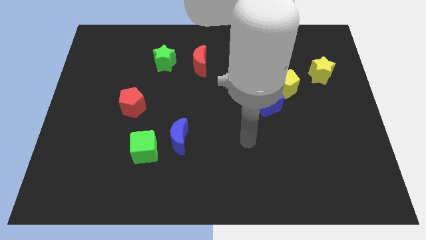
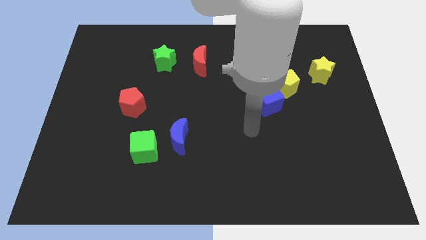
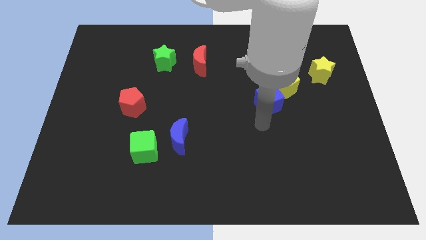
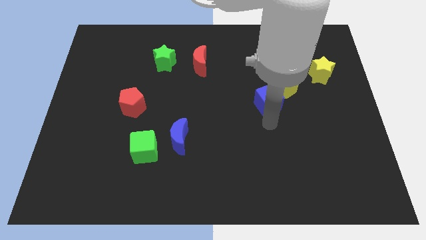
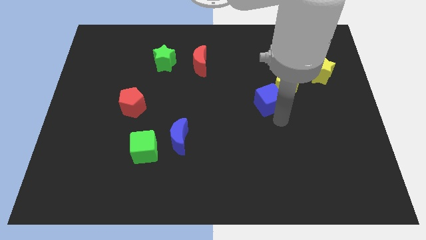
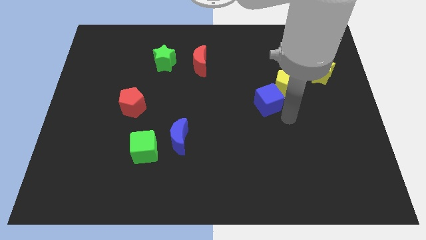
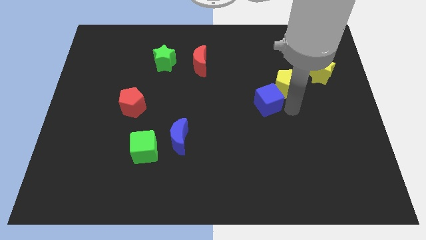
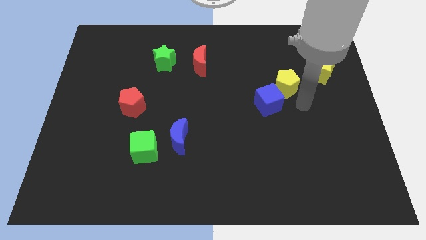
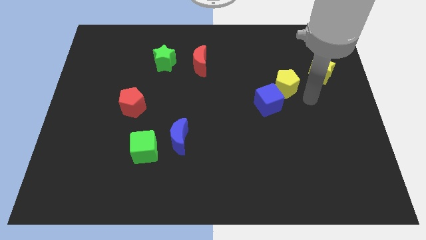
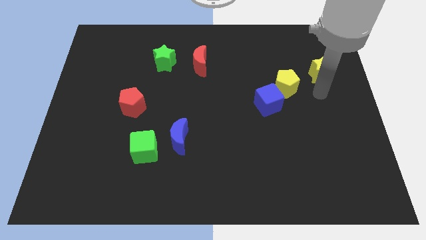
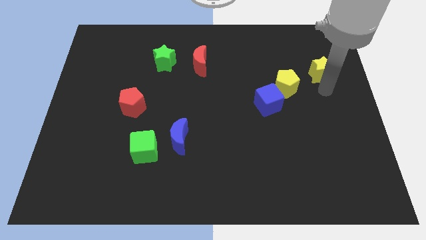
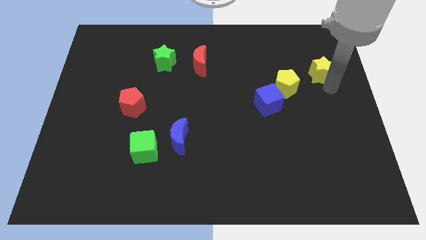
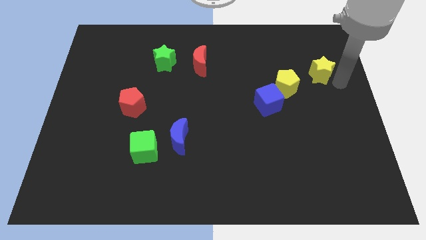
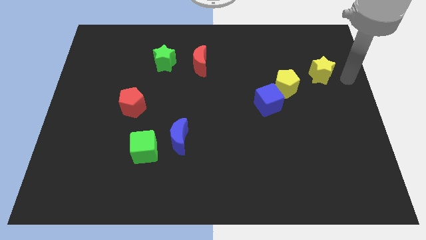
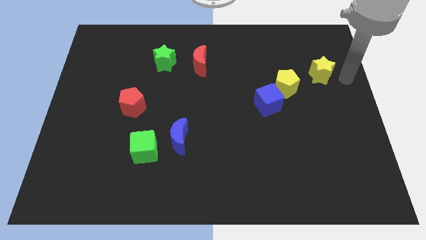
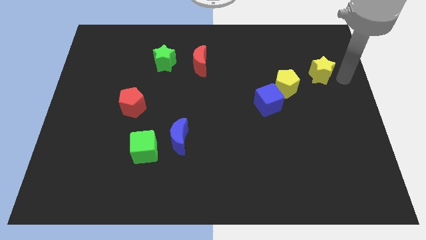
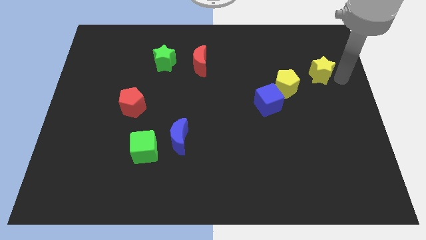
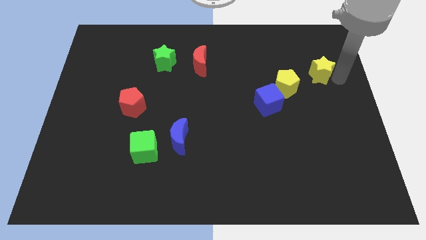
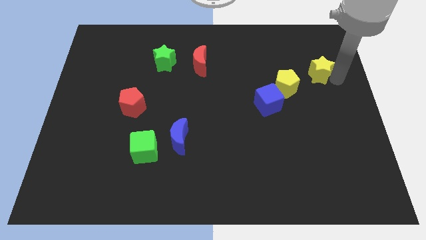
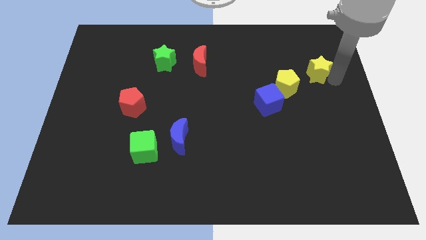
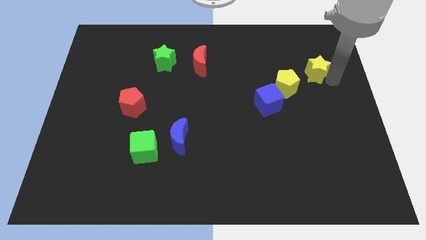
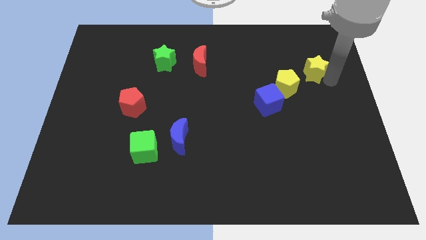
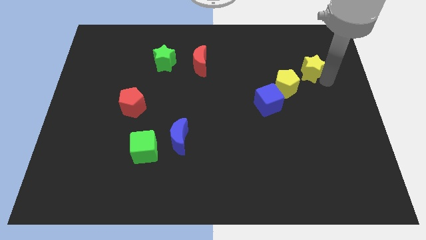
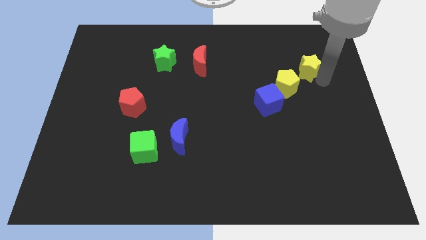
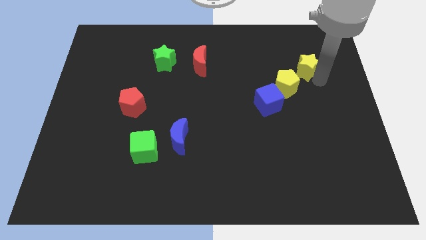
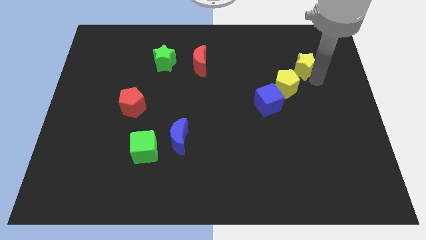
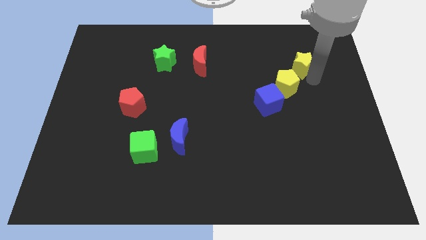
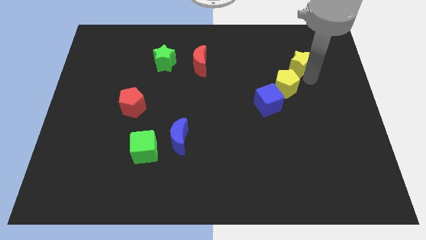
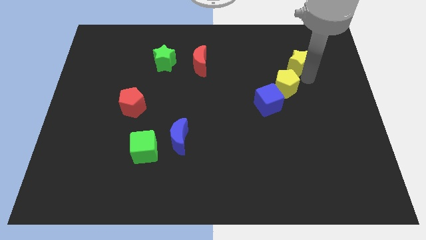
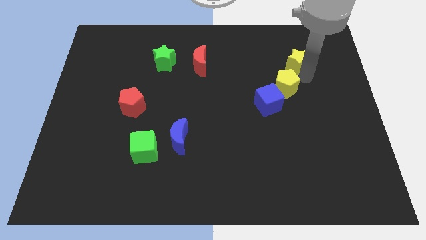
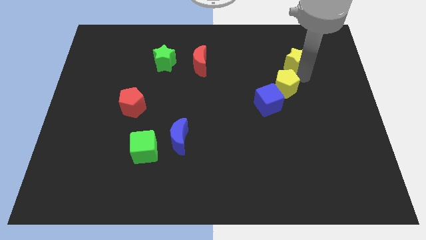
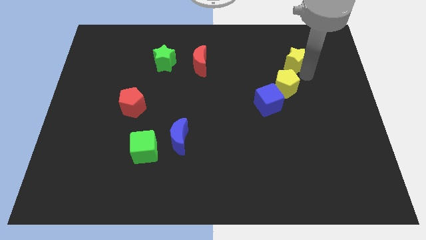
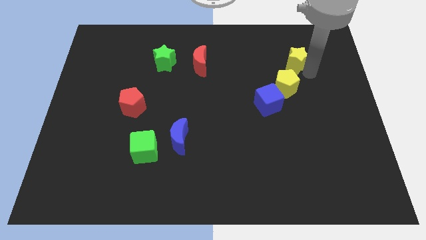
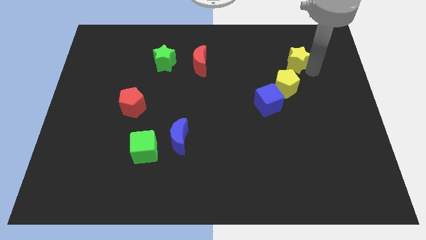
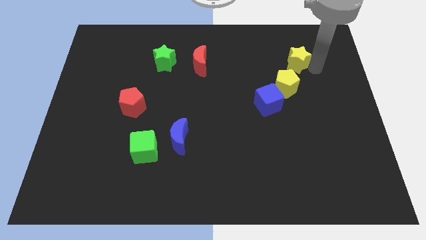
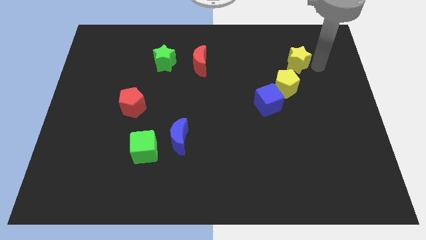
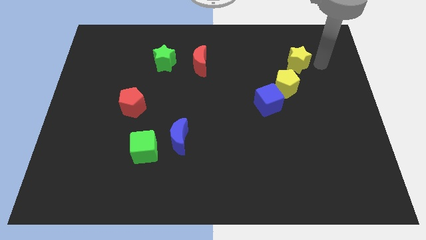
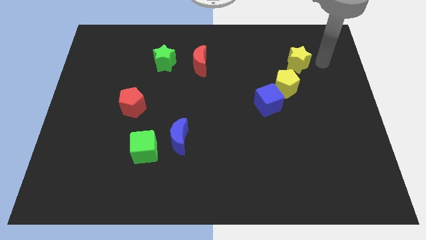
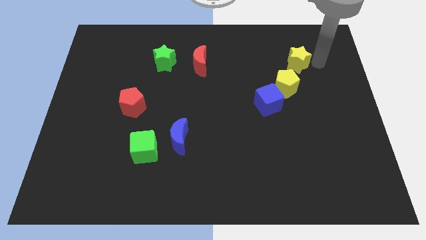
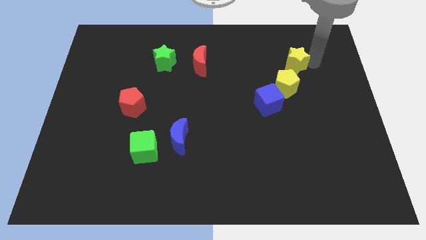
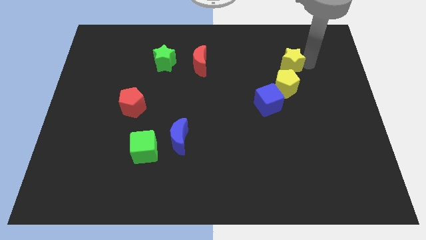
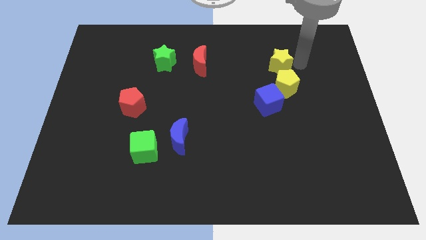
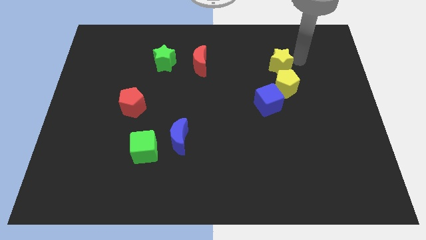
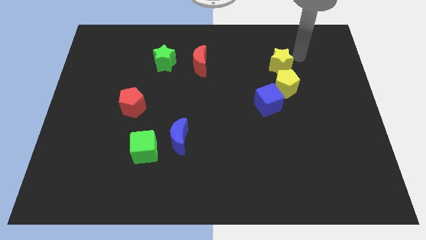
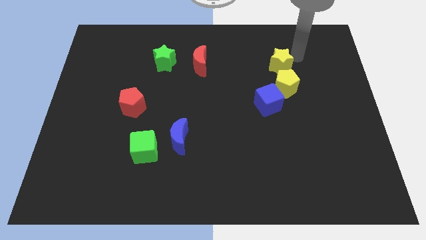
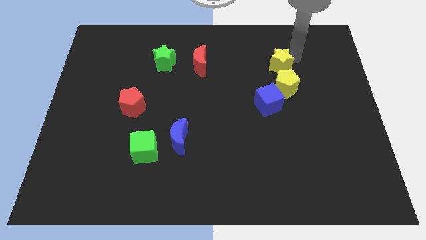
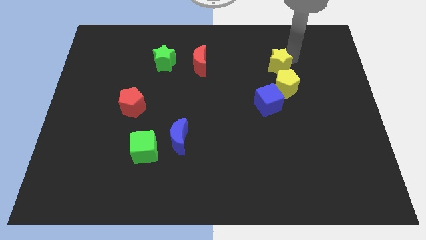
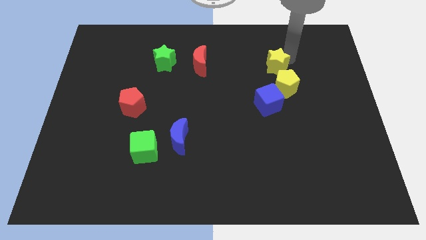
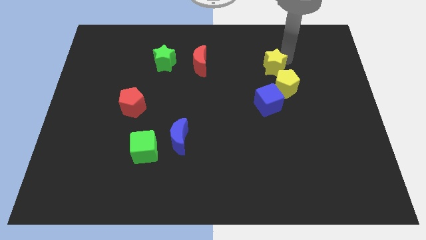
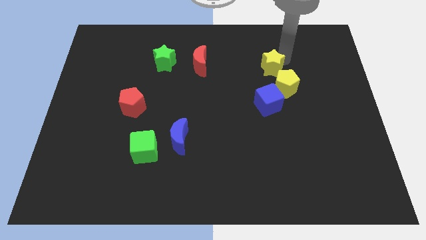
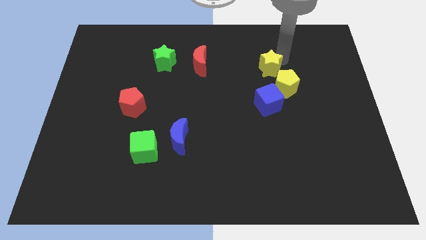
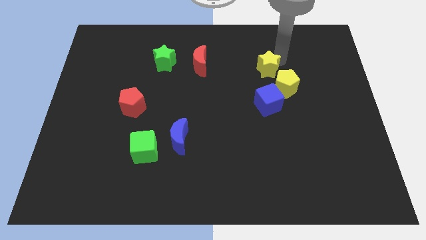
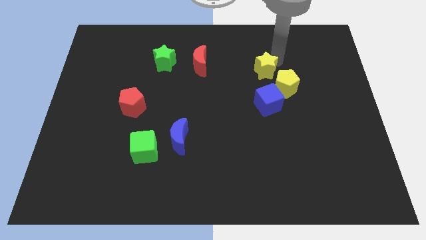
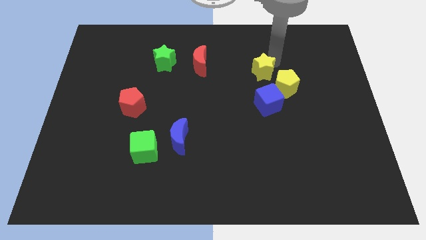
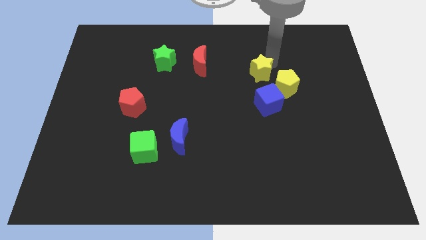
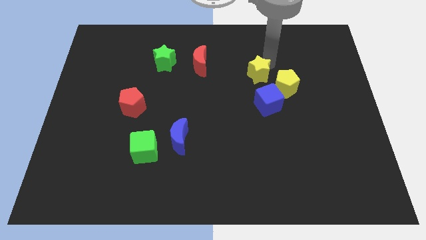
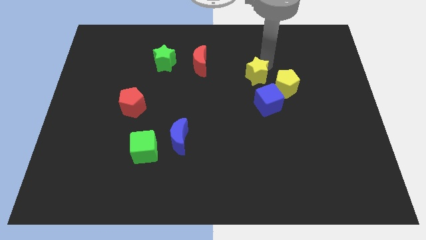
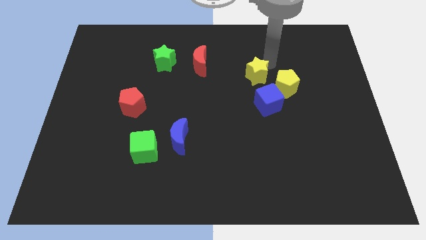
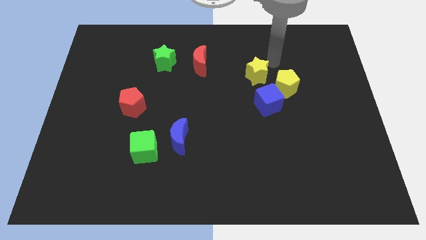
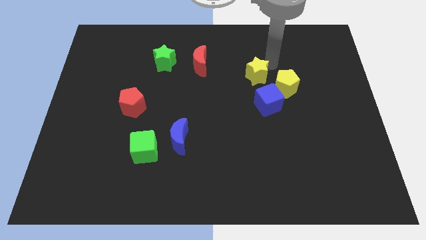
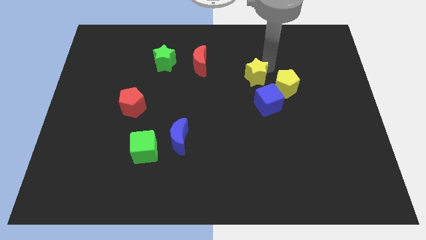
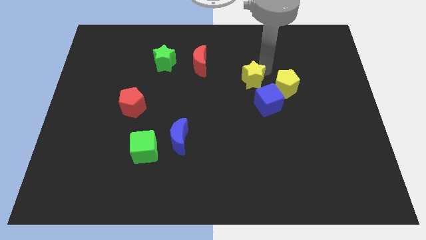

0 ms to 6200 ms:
slide the yellow star to the center of the board

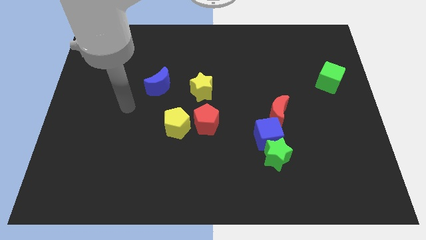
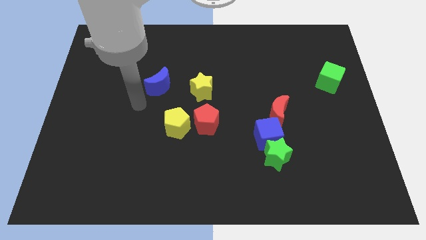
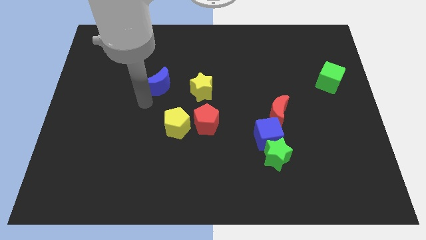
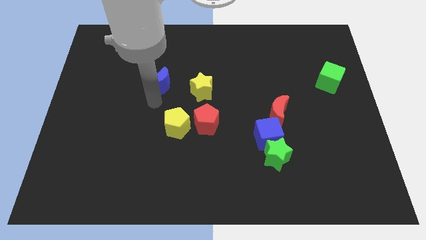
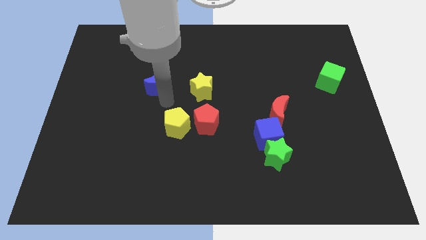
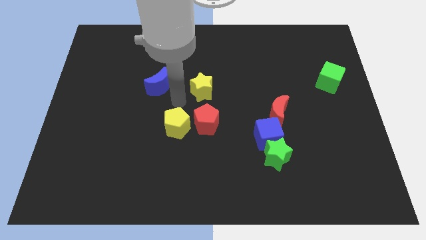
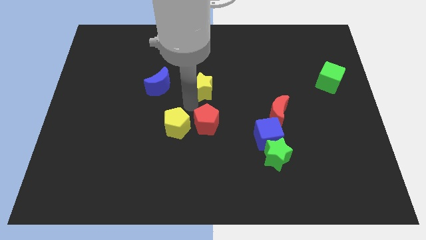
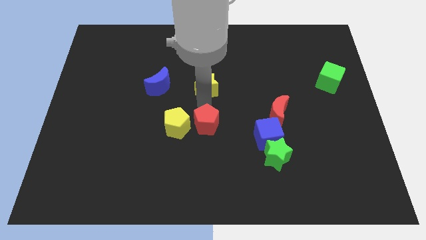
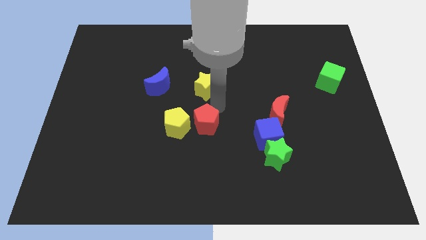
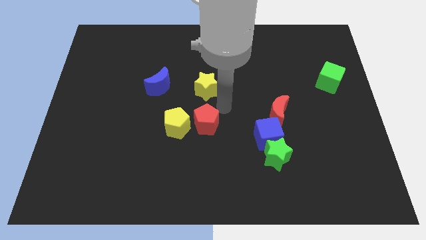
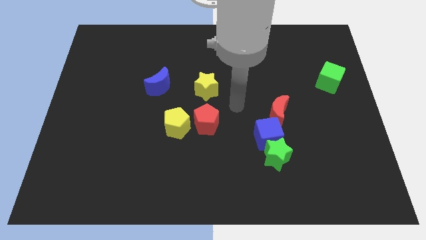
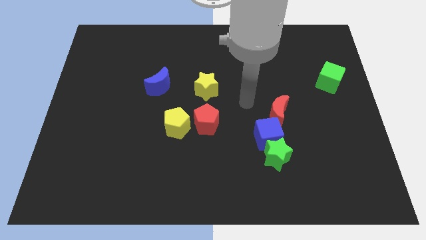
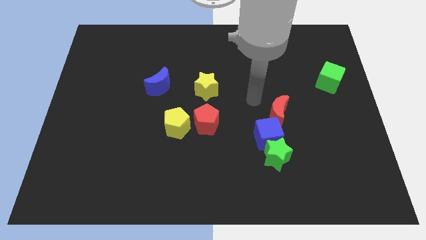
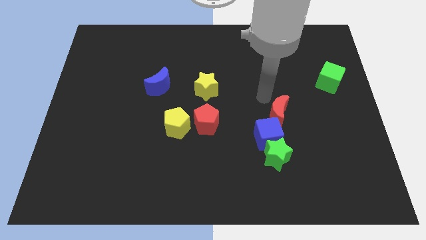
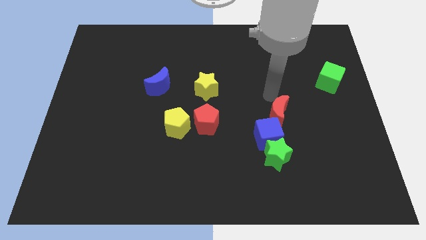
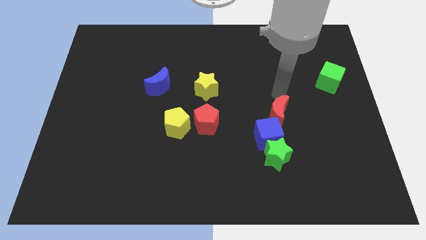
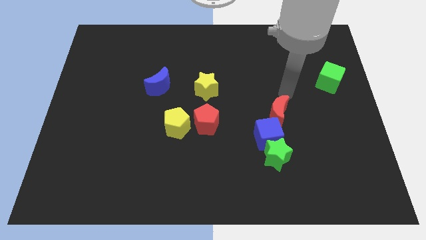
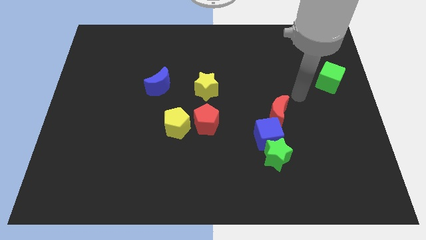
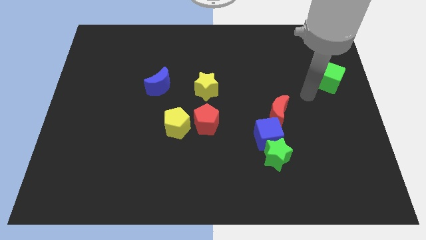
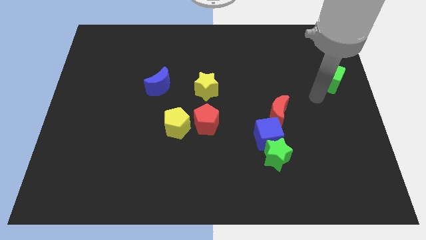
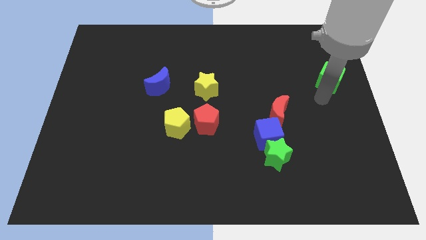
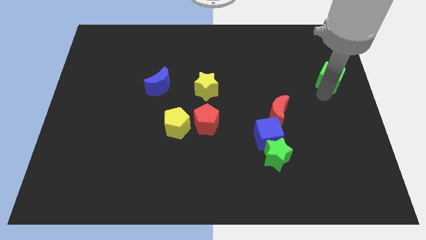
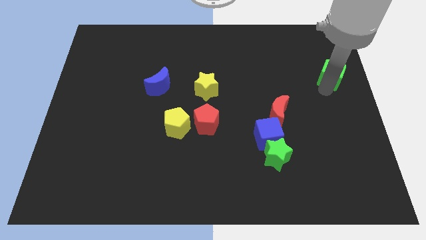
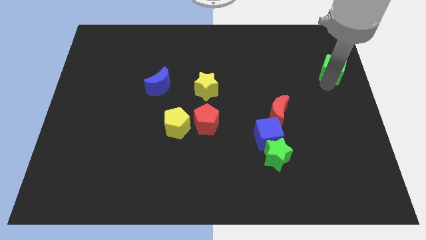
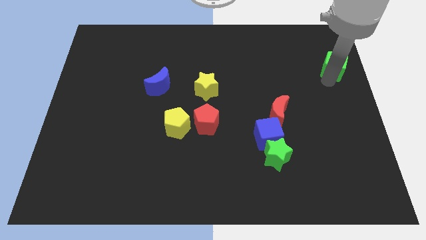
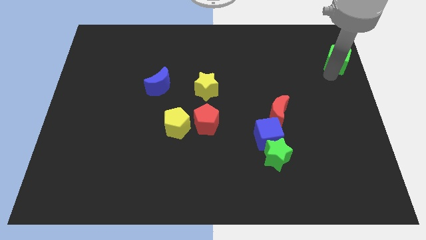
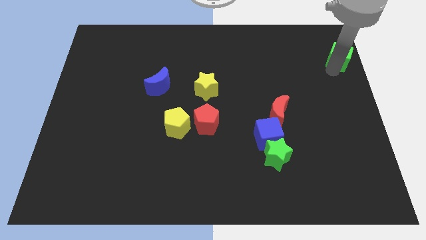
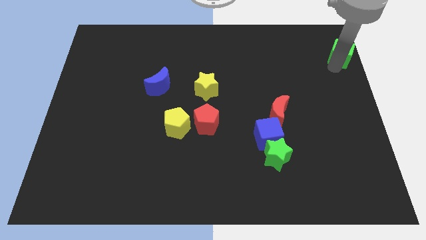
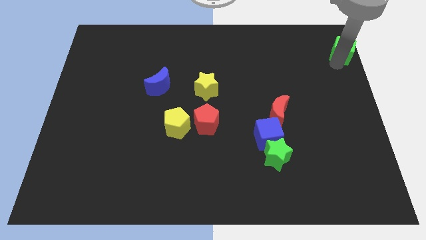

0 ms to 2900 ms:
move the green cube to the top right of the board
